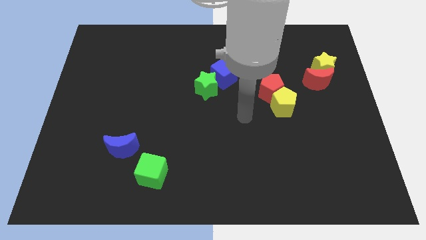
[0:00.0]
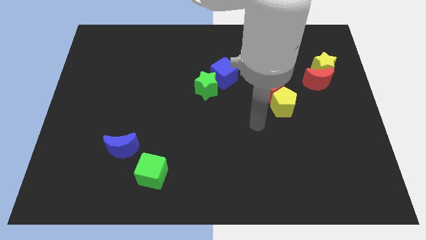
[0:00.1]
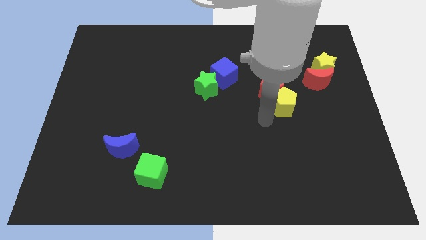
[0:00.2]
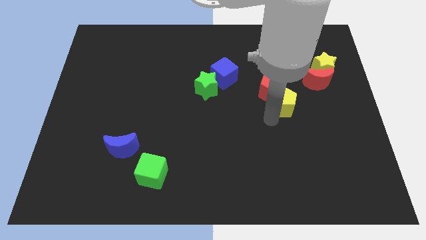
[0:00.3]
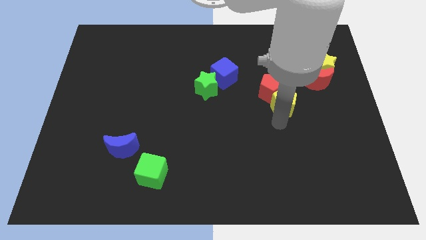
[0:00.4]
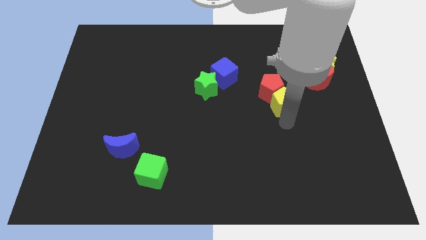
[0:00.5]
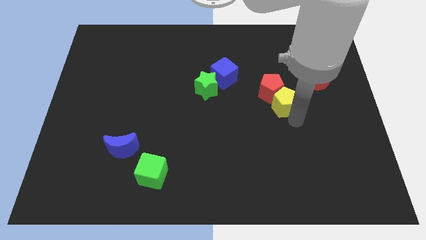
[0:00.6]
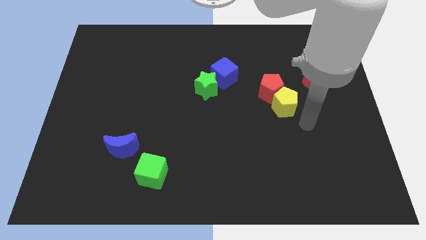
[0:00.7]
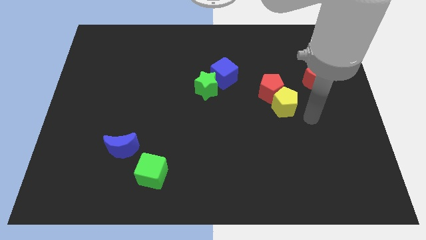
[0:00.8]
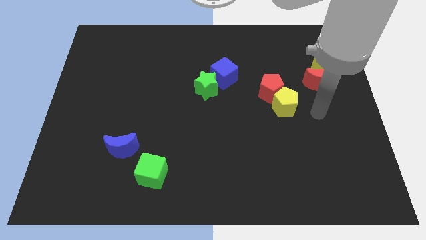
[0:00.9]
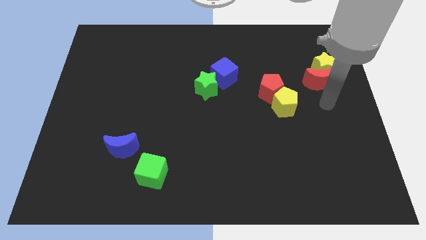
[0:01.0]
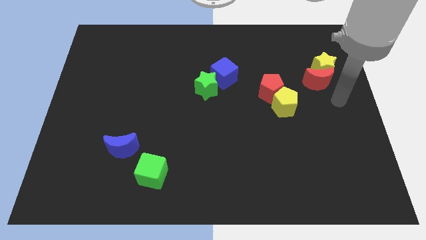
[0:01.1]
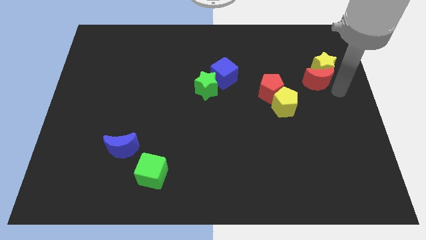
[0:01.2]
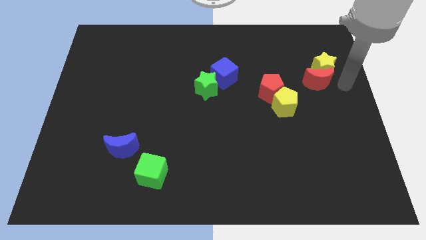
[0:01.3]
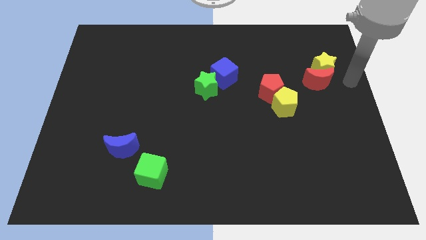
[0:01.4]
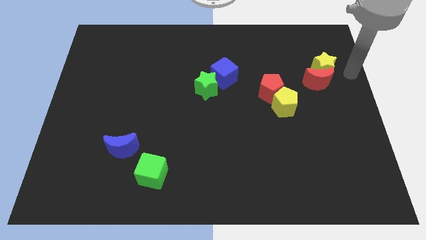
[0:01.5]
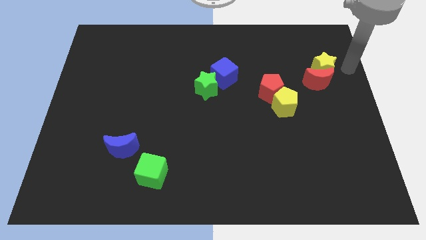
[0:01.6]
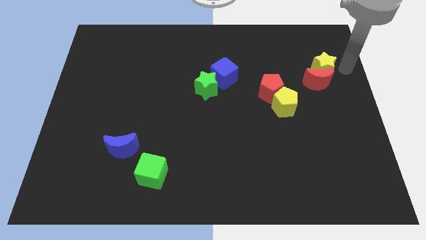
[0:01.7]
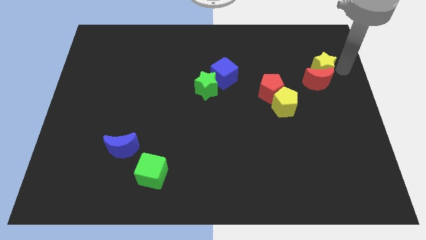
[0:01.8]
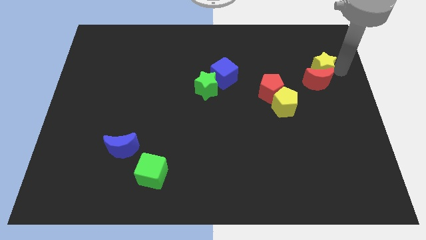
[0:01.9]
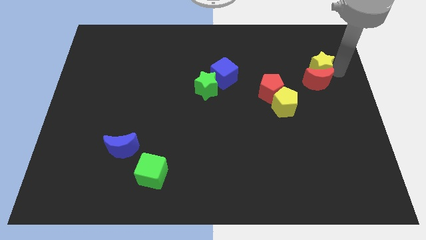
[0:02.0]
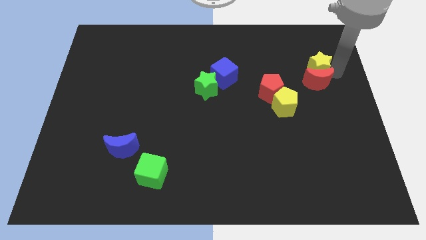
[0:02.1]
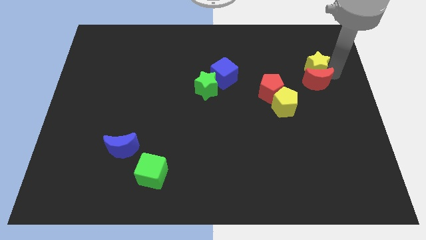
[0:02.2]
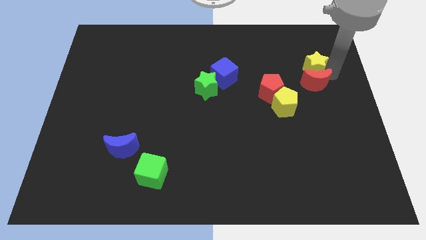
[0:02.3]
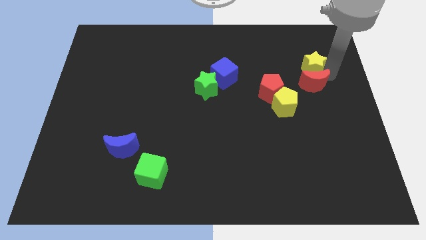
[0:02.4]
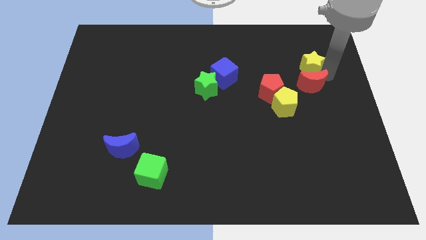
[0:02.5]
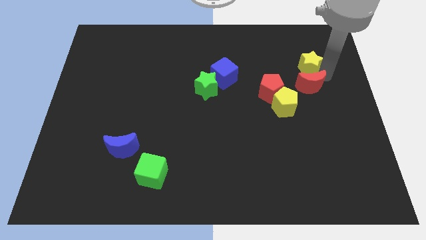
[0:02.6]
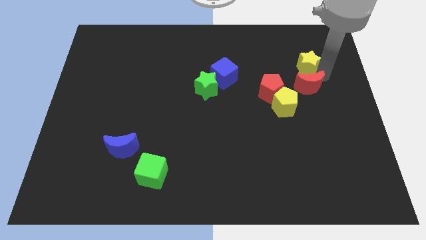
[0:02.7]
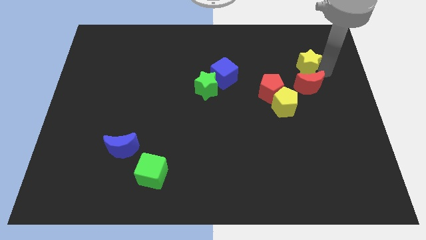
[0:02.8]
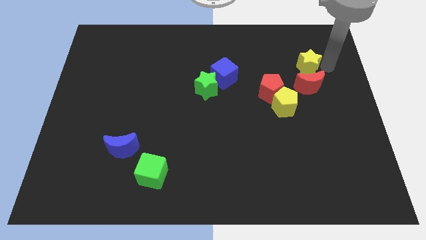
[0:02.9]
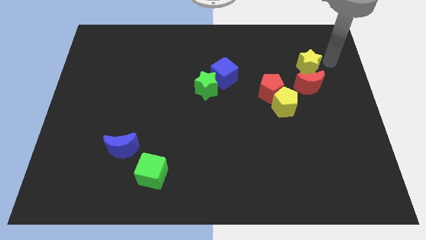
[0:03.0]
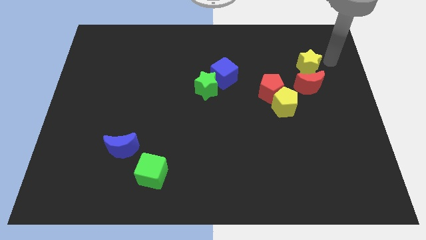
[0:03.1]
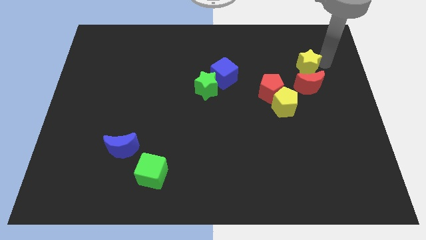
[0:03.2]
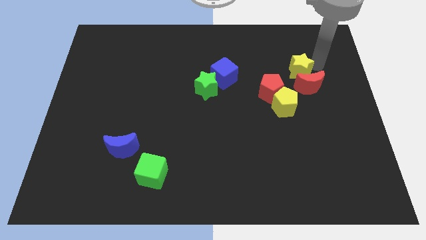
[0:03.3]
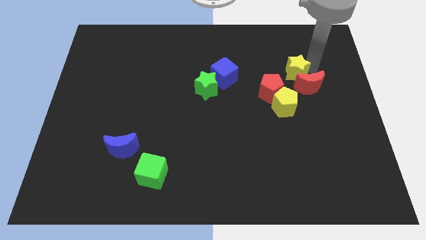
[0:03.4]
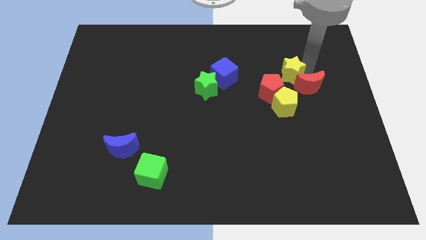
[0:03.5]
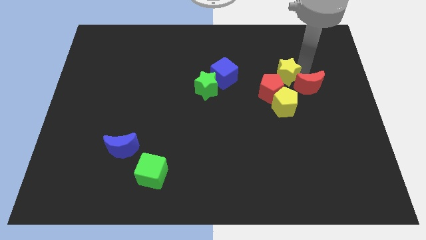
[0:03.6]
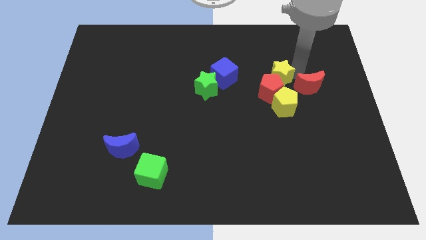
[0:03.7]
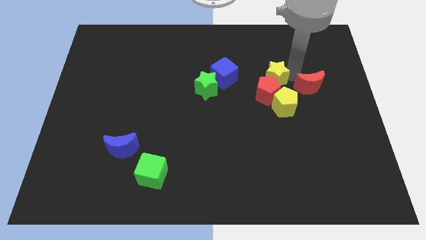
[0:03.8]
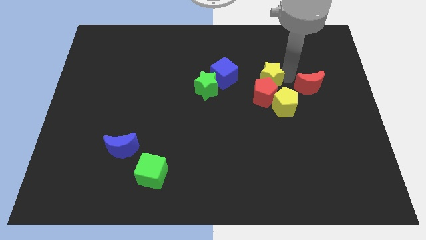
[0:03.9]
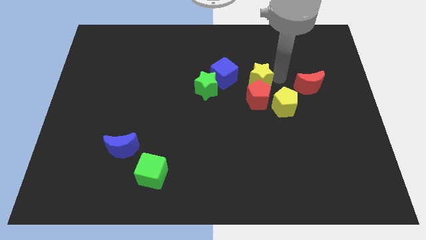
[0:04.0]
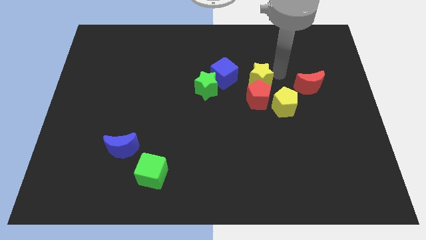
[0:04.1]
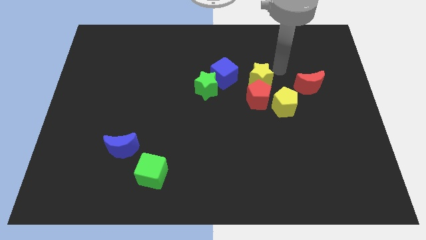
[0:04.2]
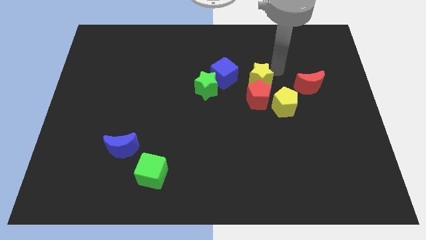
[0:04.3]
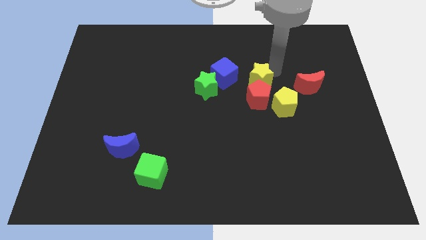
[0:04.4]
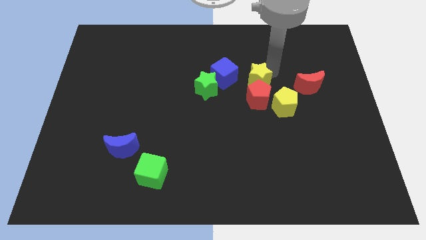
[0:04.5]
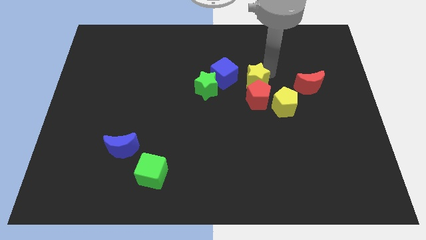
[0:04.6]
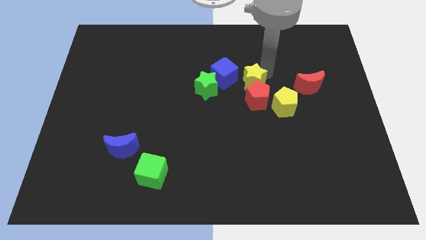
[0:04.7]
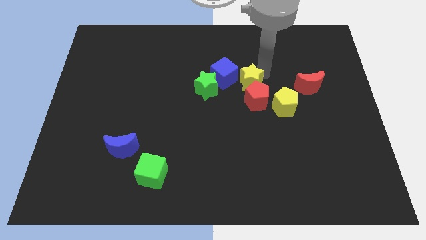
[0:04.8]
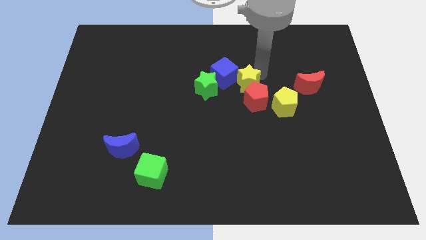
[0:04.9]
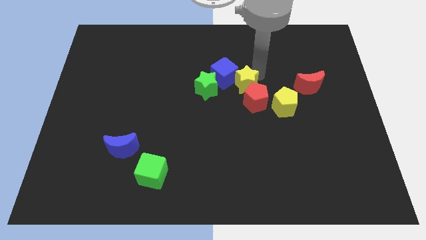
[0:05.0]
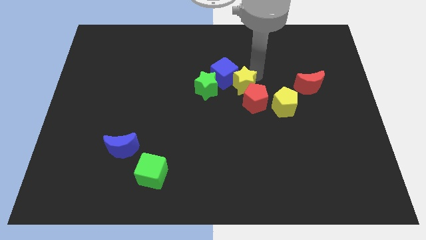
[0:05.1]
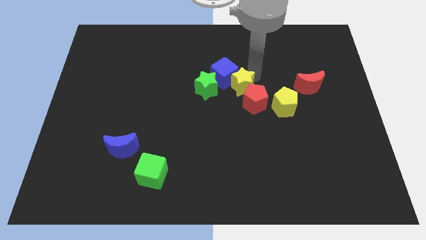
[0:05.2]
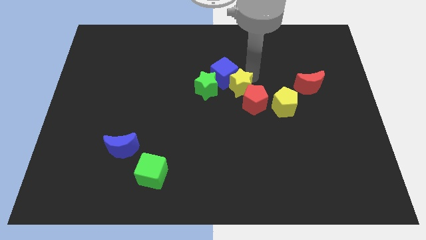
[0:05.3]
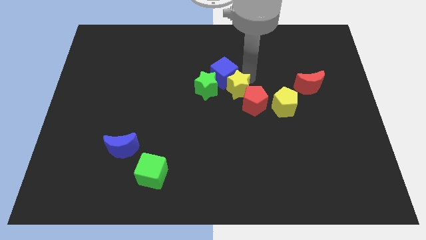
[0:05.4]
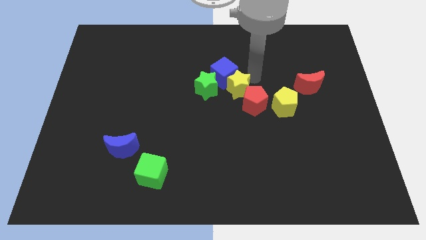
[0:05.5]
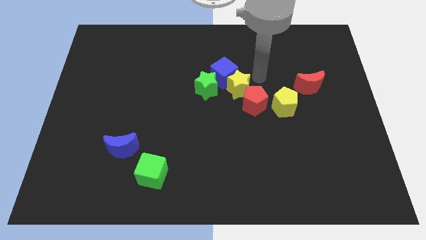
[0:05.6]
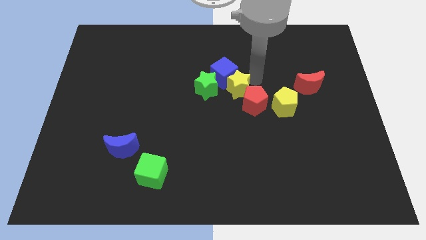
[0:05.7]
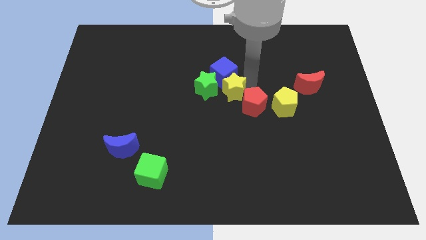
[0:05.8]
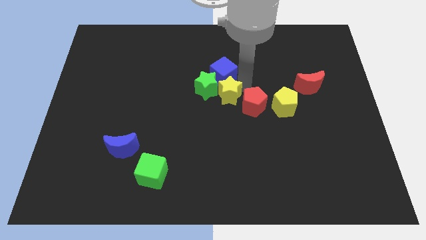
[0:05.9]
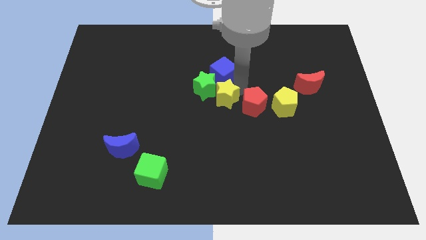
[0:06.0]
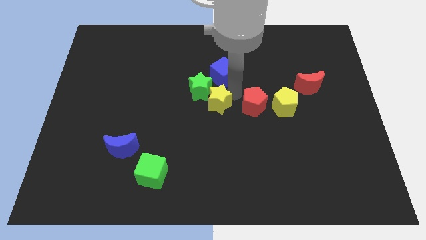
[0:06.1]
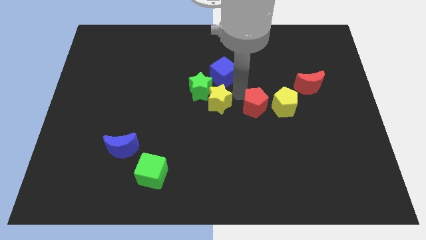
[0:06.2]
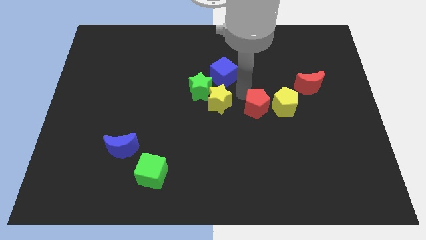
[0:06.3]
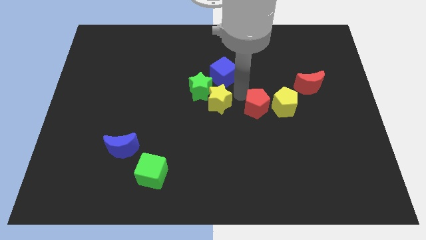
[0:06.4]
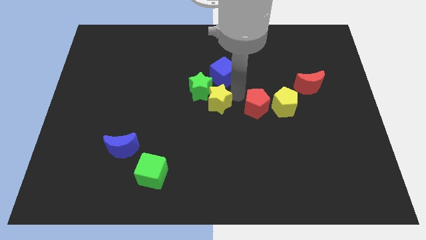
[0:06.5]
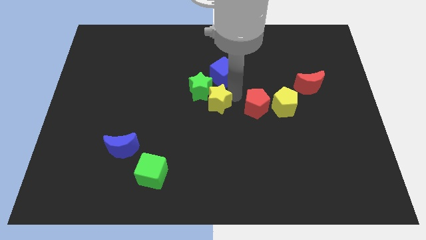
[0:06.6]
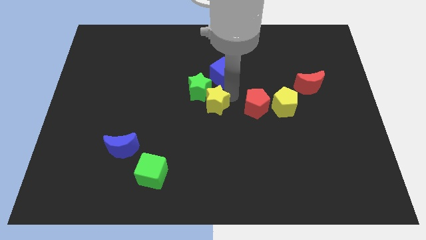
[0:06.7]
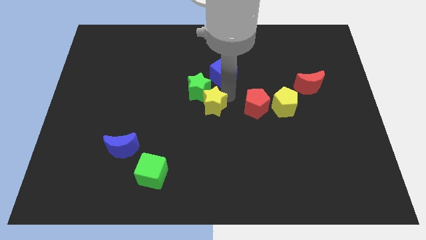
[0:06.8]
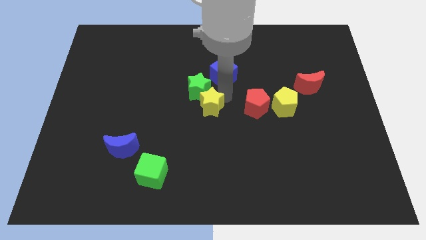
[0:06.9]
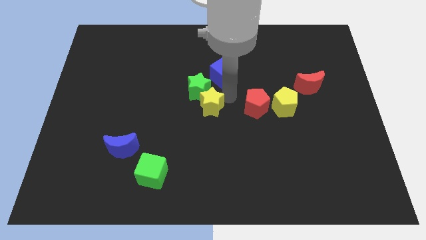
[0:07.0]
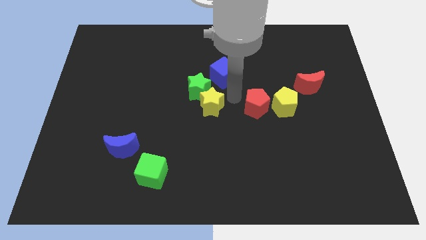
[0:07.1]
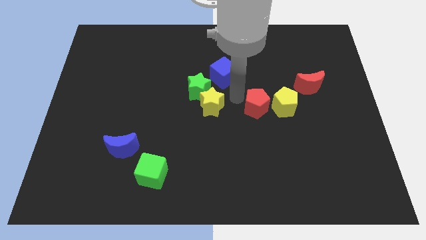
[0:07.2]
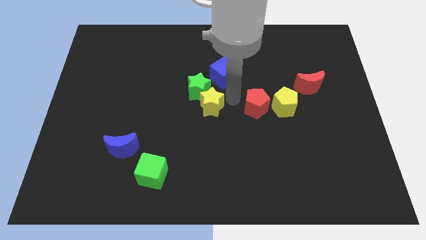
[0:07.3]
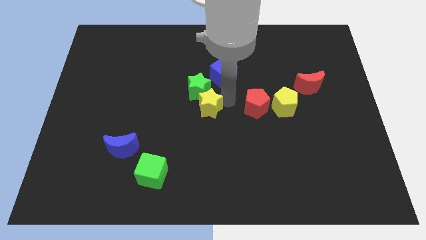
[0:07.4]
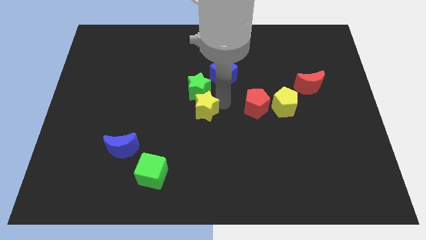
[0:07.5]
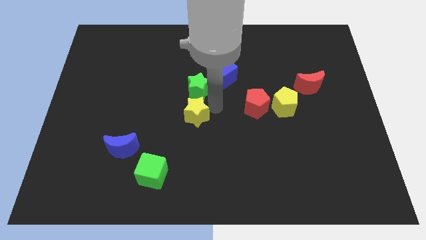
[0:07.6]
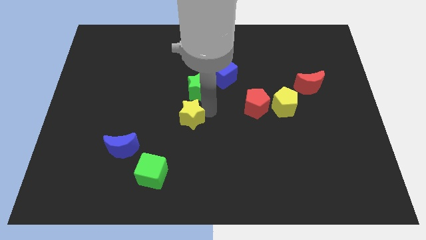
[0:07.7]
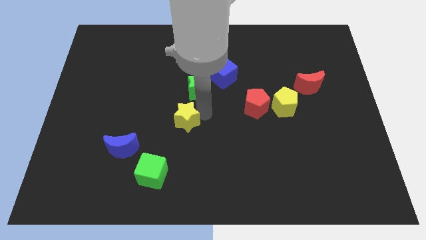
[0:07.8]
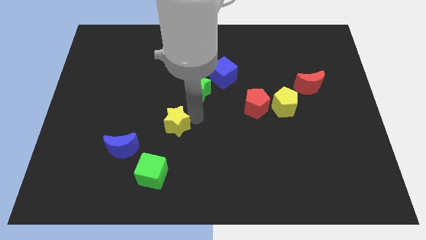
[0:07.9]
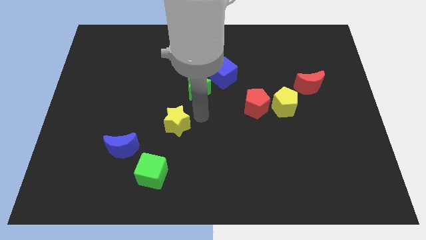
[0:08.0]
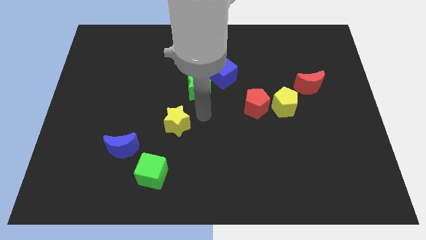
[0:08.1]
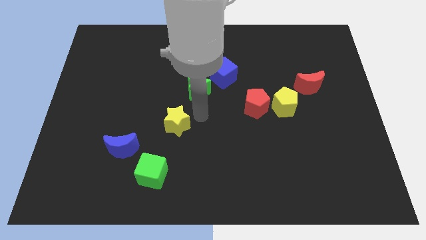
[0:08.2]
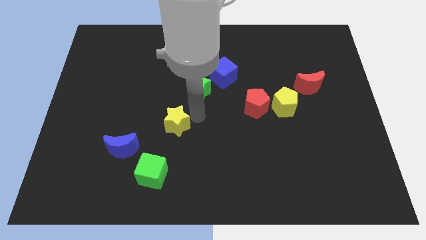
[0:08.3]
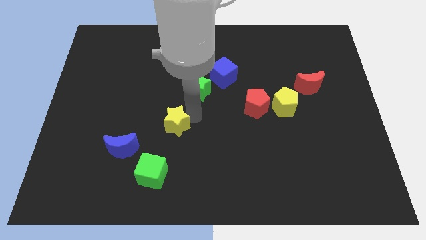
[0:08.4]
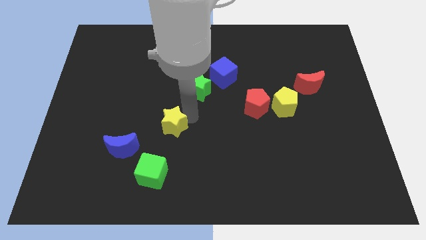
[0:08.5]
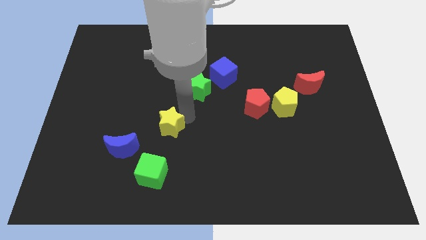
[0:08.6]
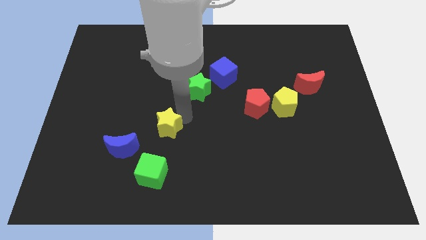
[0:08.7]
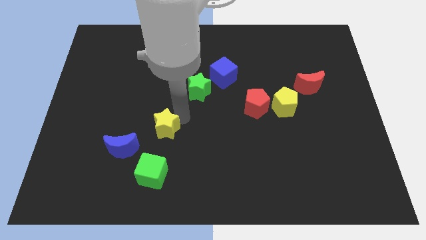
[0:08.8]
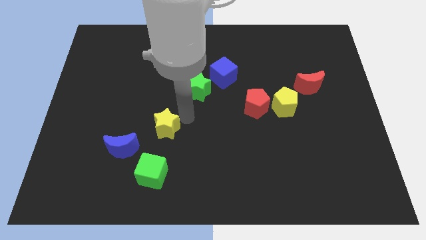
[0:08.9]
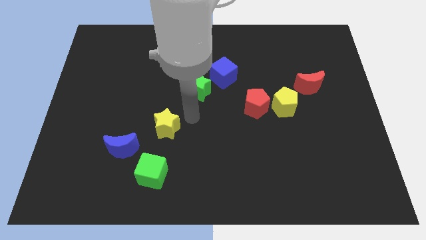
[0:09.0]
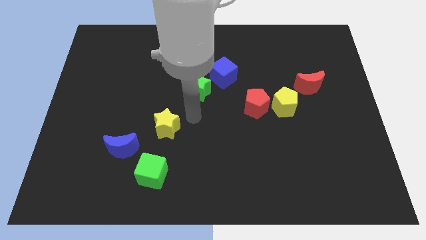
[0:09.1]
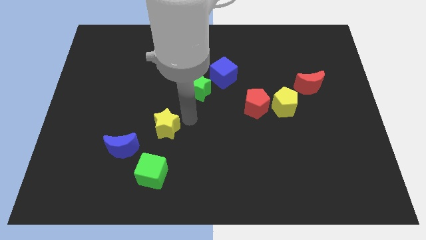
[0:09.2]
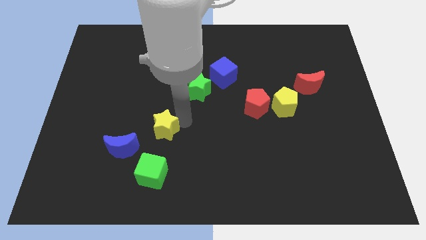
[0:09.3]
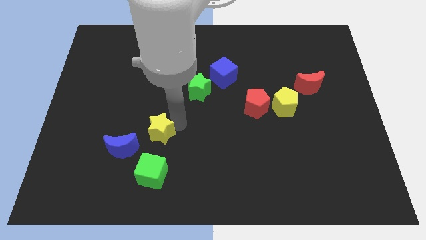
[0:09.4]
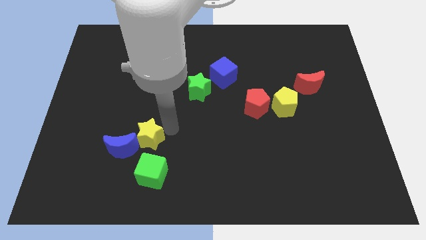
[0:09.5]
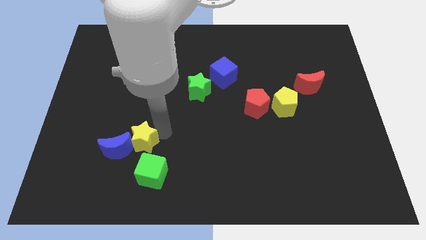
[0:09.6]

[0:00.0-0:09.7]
move the yellow star to the blue moon
